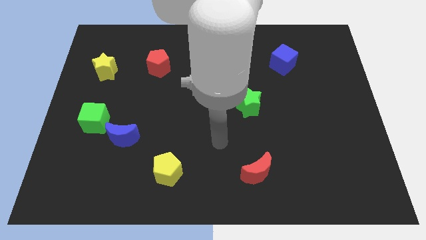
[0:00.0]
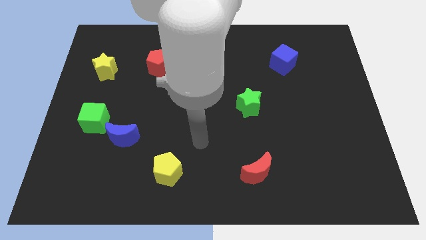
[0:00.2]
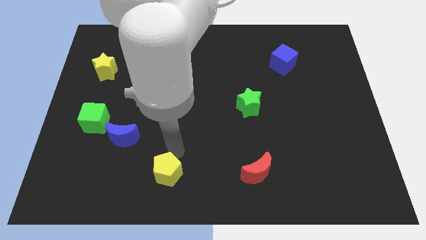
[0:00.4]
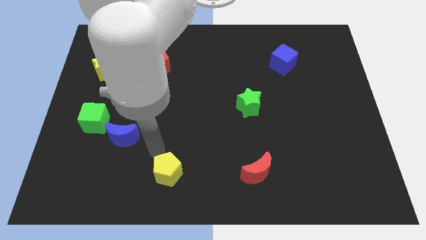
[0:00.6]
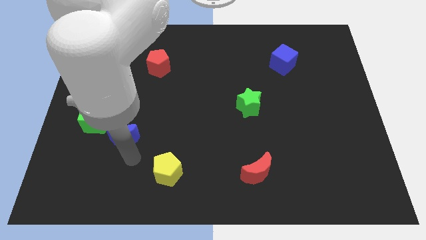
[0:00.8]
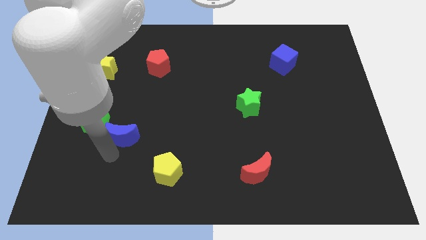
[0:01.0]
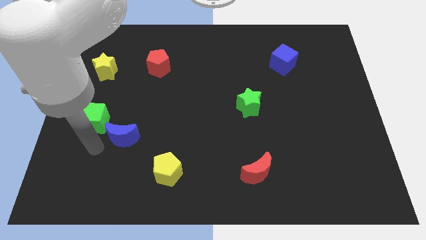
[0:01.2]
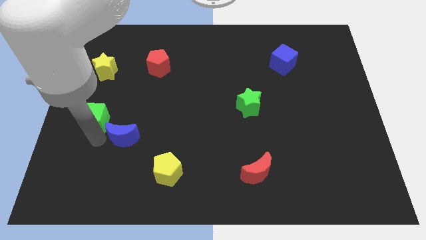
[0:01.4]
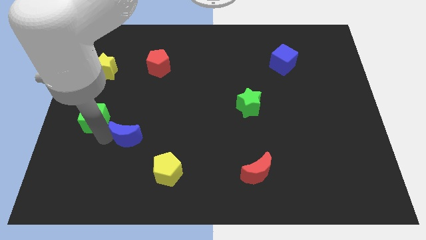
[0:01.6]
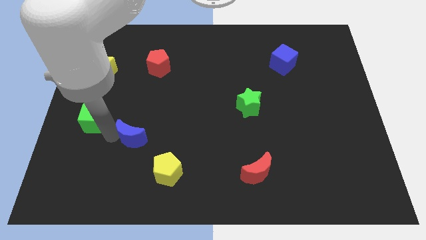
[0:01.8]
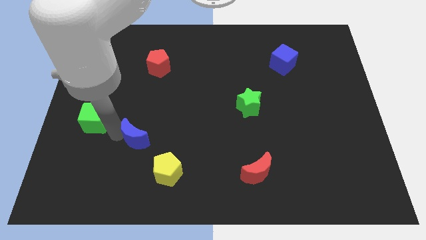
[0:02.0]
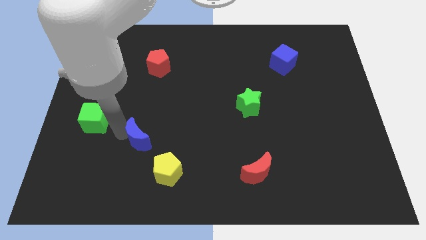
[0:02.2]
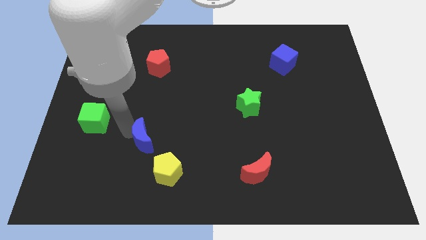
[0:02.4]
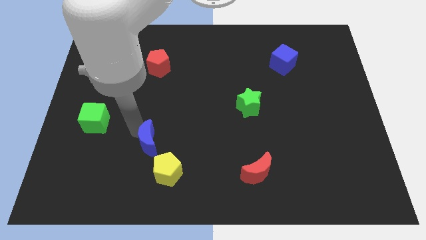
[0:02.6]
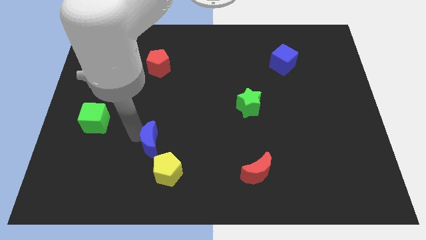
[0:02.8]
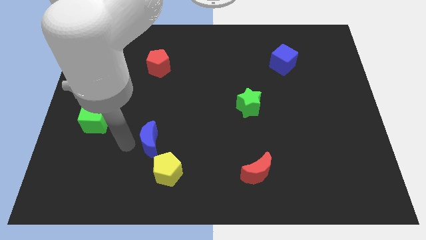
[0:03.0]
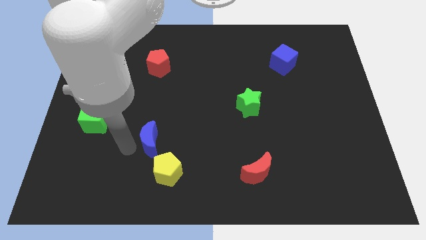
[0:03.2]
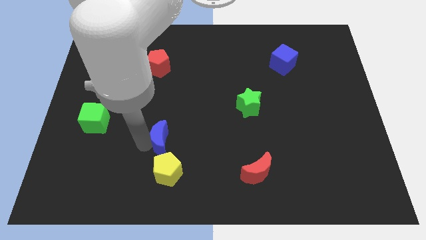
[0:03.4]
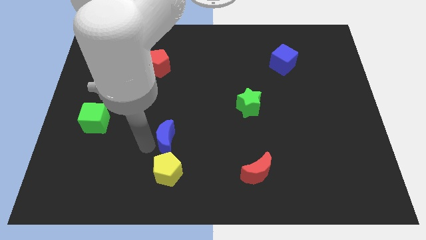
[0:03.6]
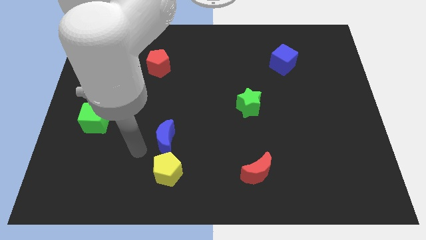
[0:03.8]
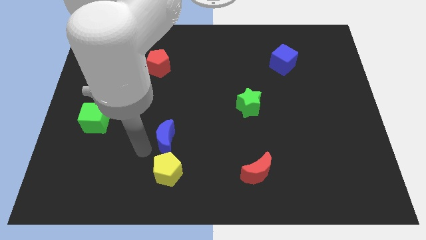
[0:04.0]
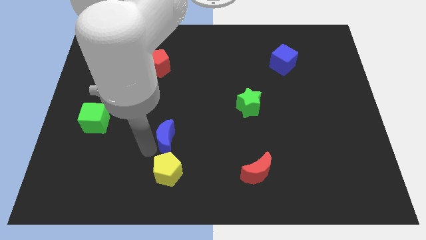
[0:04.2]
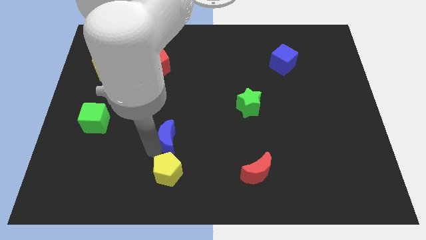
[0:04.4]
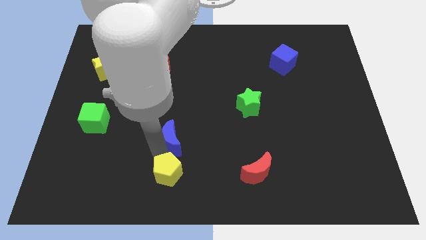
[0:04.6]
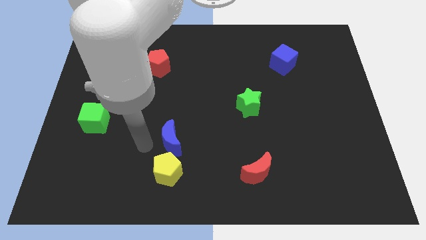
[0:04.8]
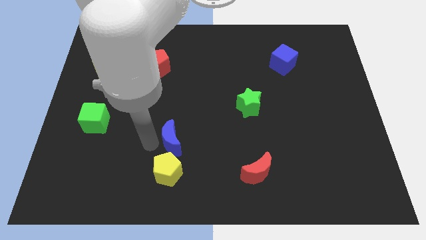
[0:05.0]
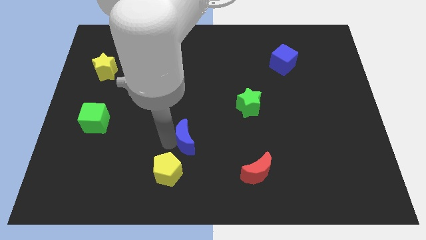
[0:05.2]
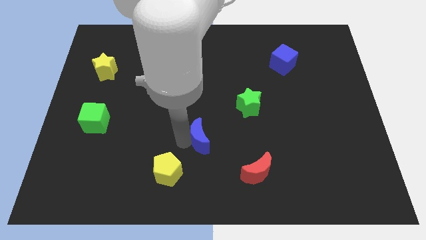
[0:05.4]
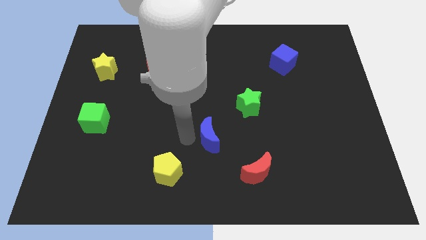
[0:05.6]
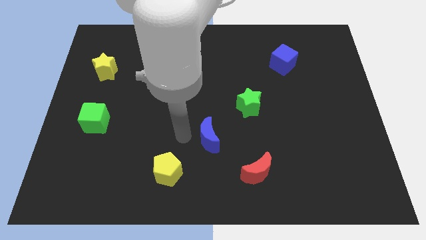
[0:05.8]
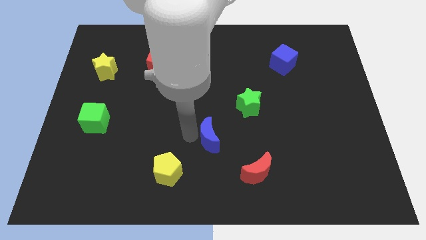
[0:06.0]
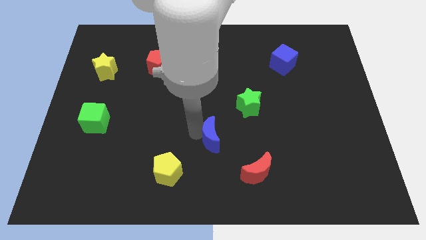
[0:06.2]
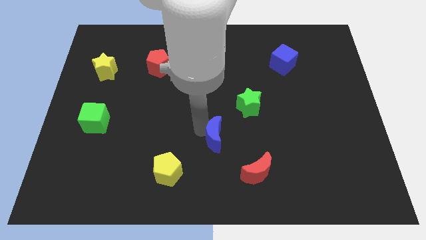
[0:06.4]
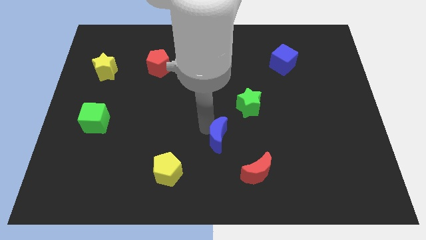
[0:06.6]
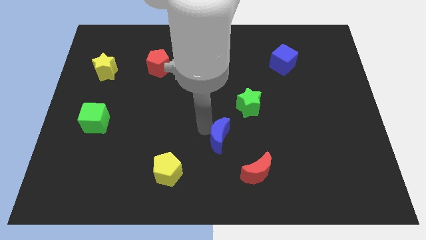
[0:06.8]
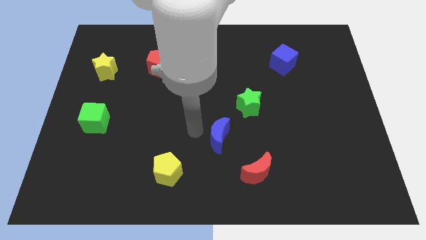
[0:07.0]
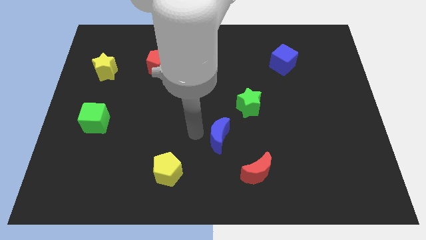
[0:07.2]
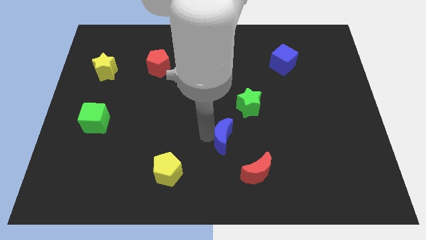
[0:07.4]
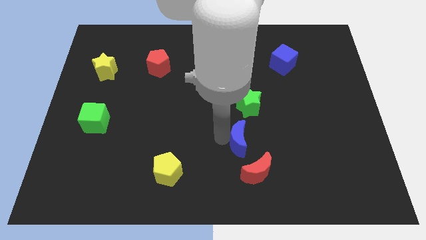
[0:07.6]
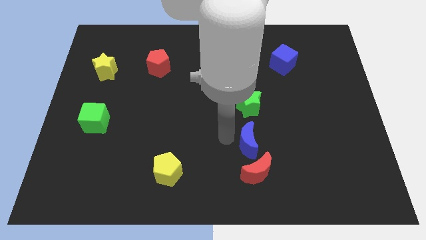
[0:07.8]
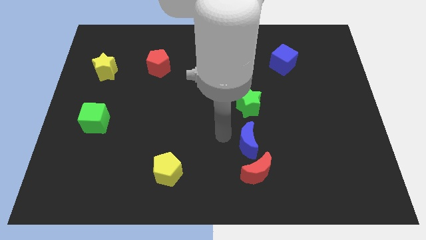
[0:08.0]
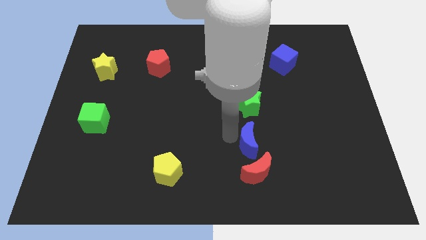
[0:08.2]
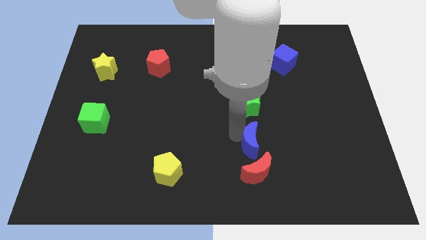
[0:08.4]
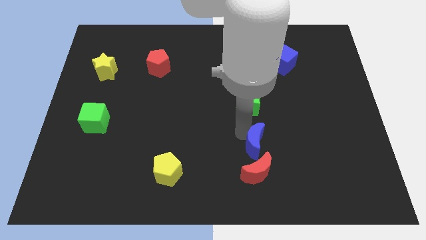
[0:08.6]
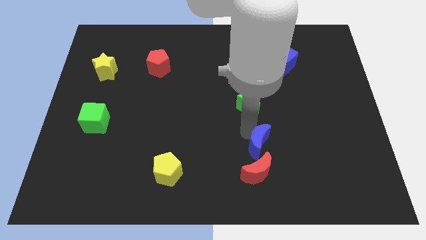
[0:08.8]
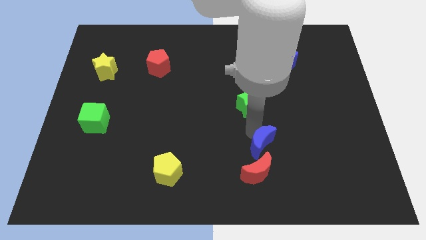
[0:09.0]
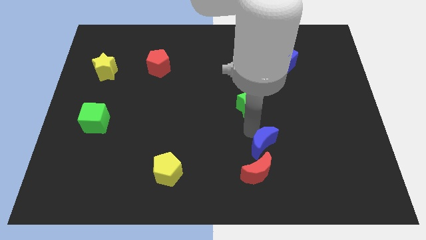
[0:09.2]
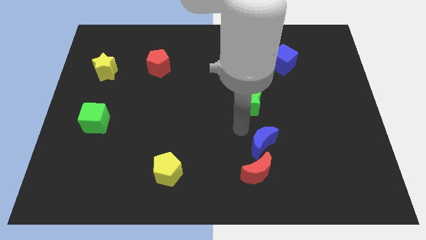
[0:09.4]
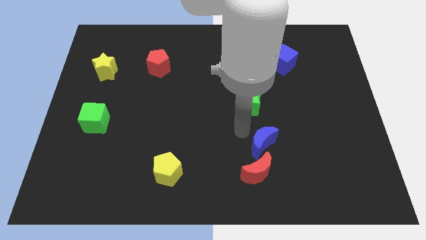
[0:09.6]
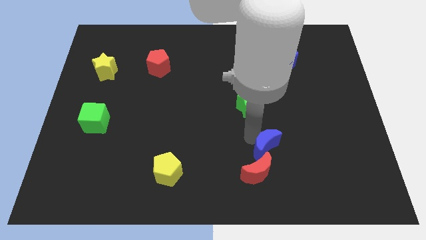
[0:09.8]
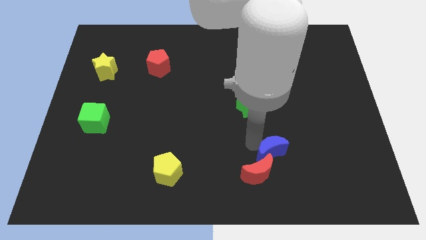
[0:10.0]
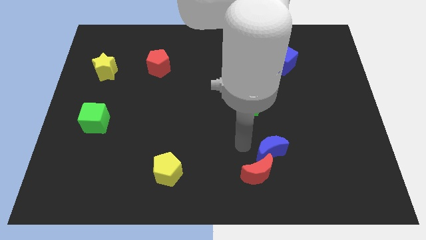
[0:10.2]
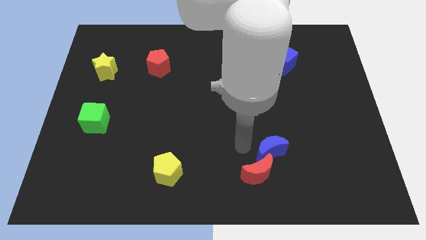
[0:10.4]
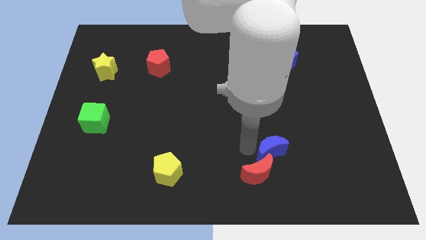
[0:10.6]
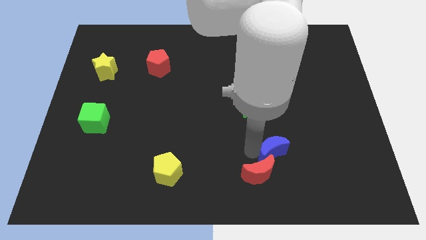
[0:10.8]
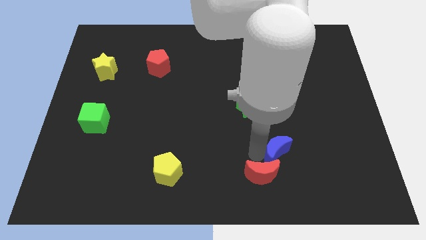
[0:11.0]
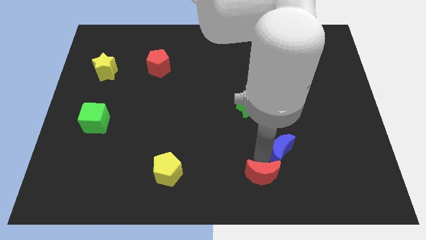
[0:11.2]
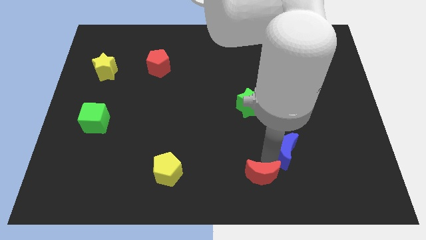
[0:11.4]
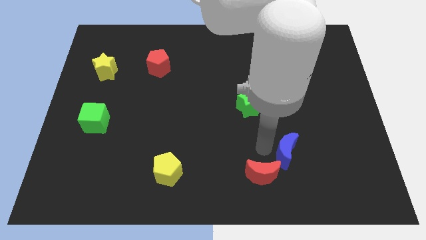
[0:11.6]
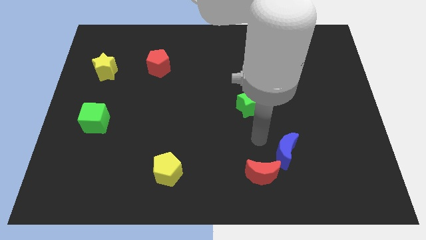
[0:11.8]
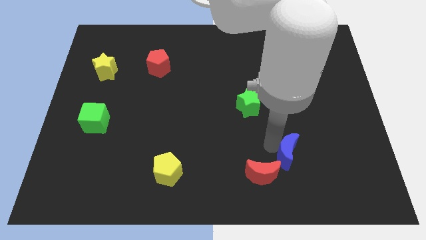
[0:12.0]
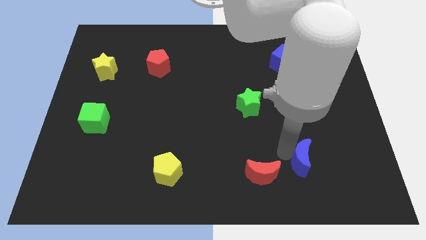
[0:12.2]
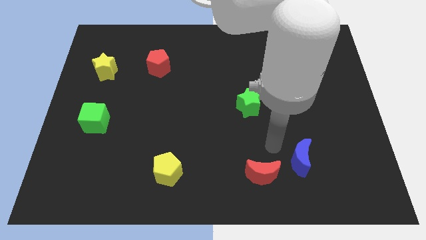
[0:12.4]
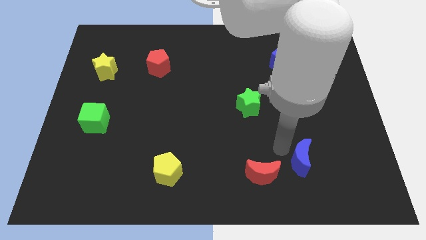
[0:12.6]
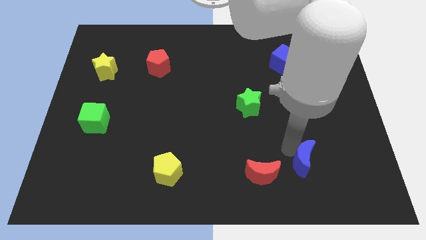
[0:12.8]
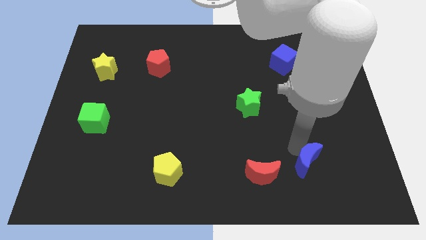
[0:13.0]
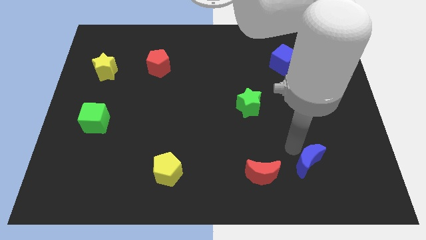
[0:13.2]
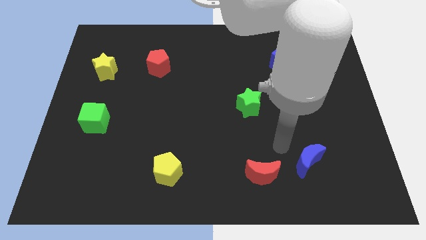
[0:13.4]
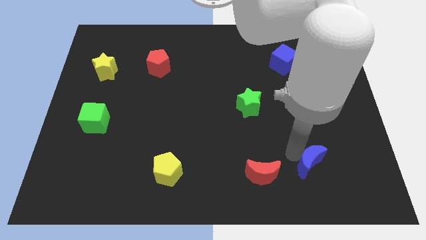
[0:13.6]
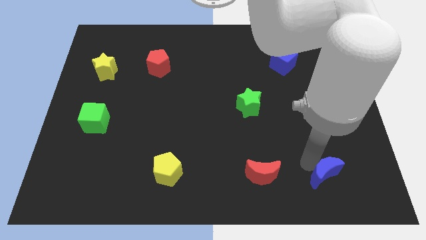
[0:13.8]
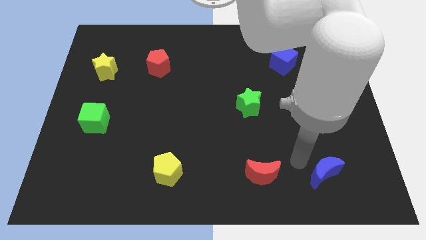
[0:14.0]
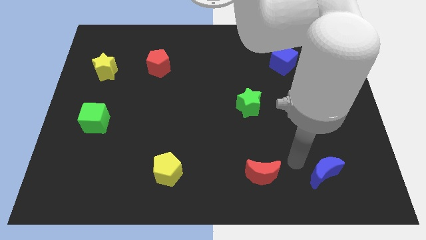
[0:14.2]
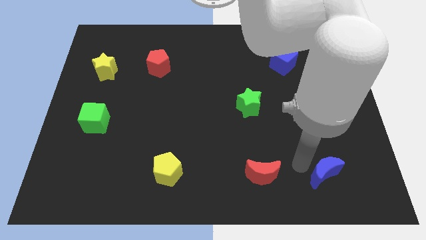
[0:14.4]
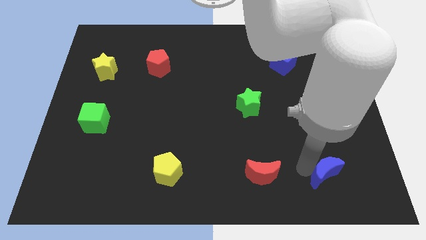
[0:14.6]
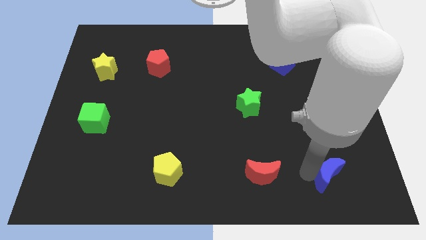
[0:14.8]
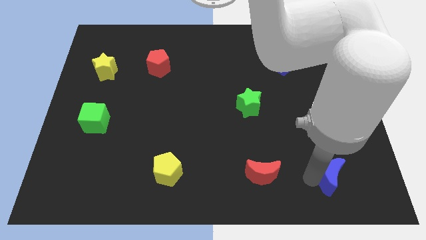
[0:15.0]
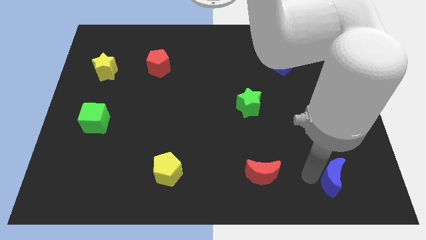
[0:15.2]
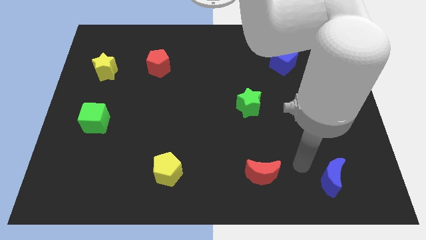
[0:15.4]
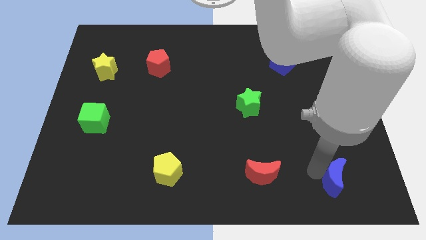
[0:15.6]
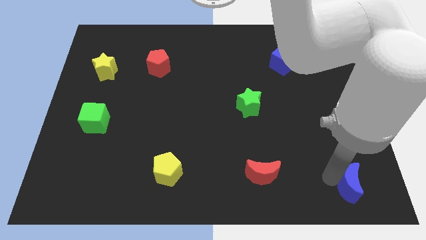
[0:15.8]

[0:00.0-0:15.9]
move the blue moon to the bottom right of the board
